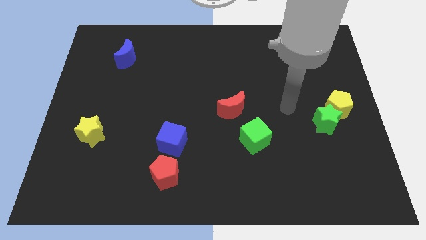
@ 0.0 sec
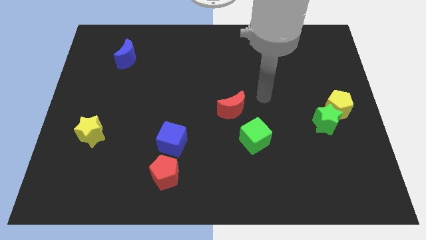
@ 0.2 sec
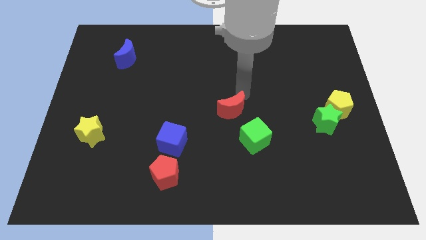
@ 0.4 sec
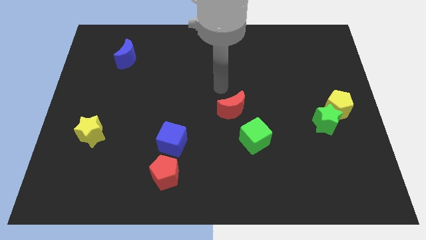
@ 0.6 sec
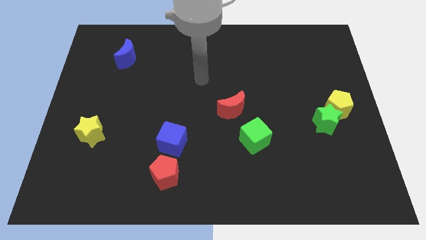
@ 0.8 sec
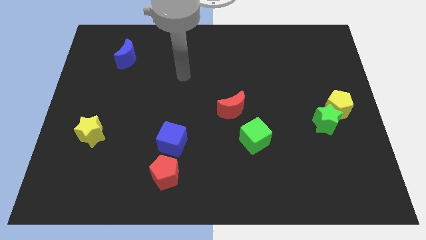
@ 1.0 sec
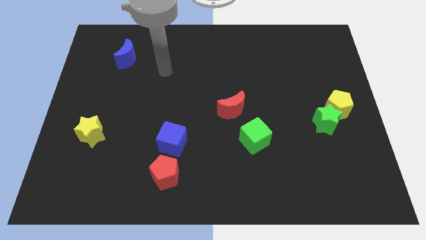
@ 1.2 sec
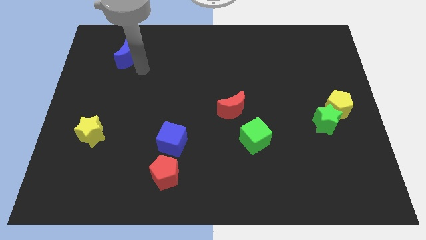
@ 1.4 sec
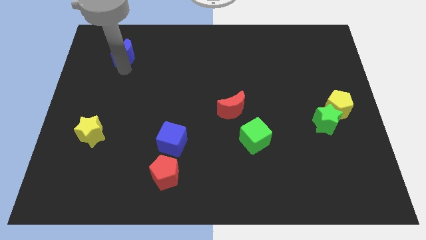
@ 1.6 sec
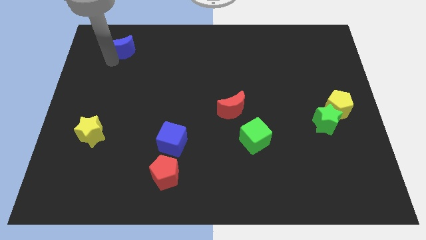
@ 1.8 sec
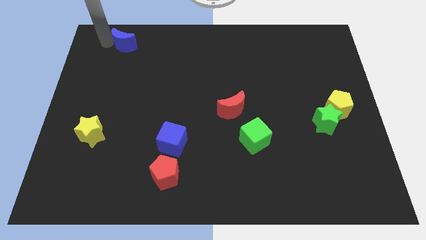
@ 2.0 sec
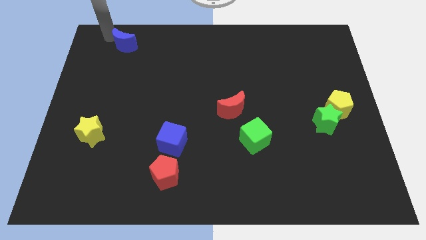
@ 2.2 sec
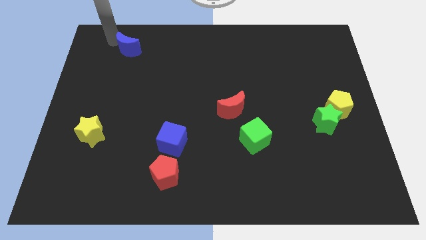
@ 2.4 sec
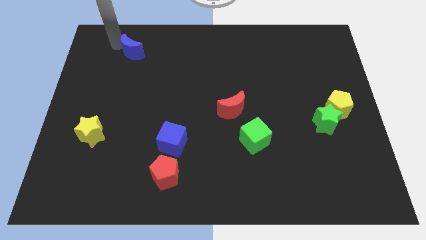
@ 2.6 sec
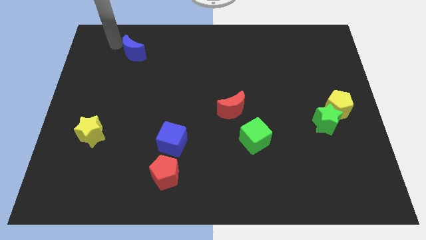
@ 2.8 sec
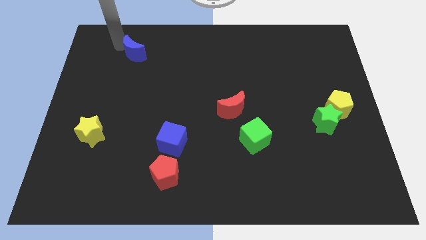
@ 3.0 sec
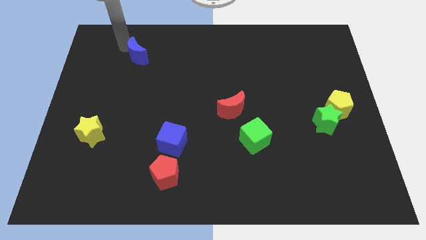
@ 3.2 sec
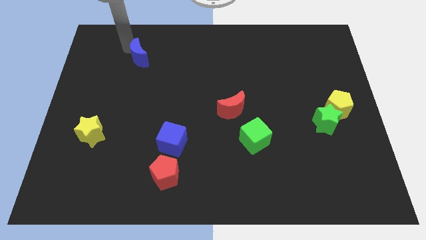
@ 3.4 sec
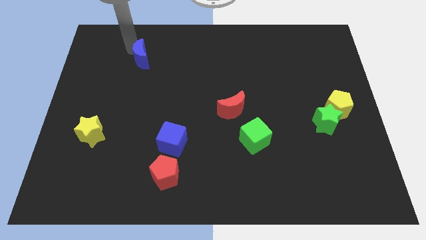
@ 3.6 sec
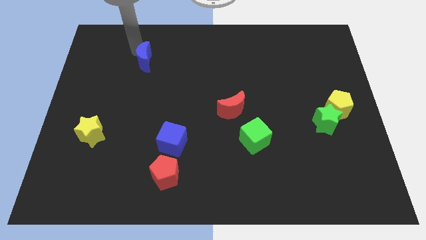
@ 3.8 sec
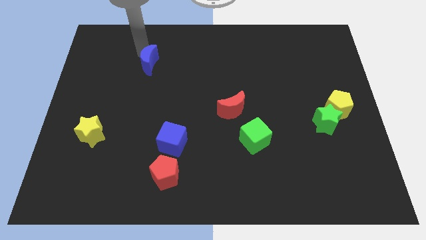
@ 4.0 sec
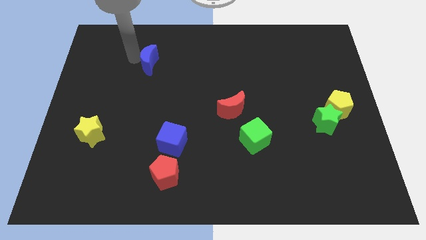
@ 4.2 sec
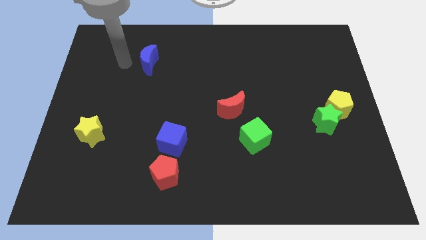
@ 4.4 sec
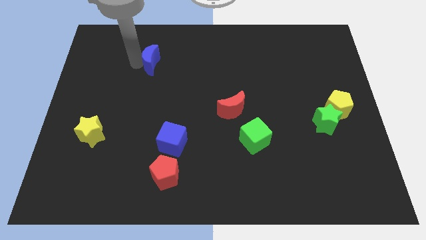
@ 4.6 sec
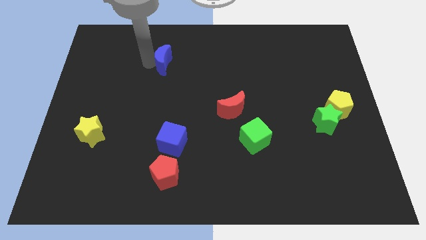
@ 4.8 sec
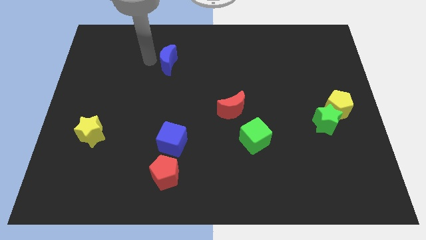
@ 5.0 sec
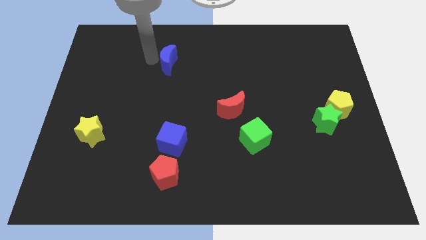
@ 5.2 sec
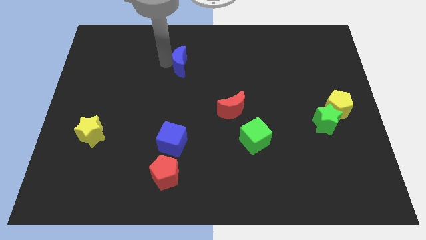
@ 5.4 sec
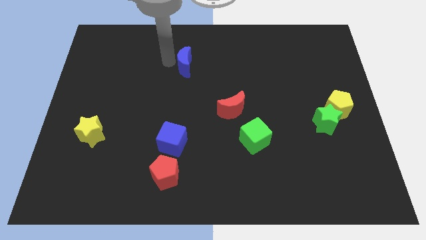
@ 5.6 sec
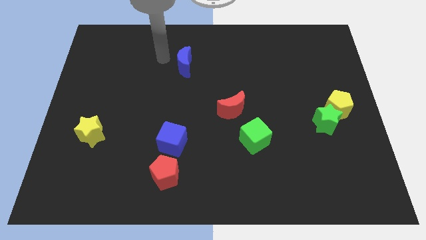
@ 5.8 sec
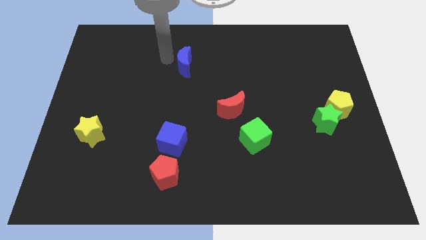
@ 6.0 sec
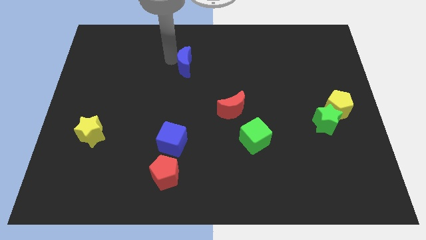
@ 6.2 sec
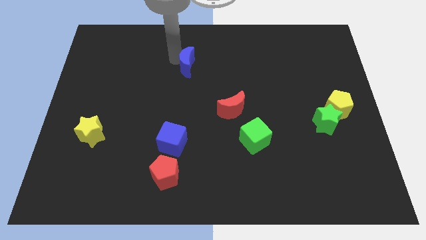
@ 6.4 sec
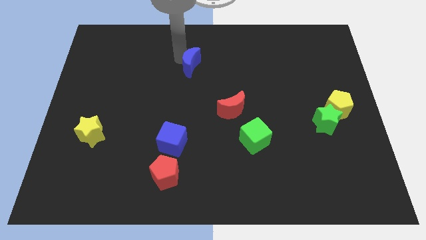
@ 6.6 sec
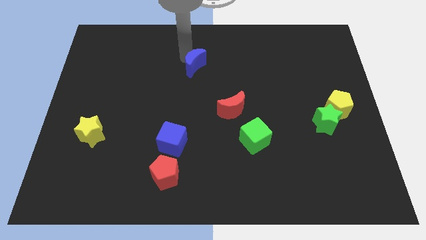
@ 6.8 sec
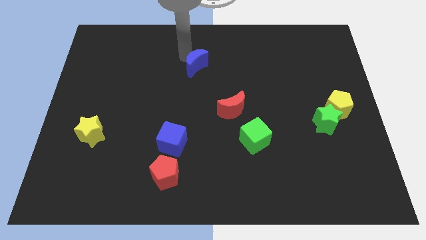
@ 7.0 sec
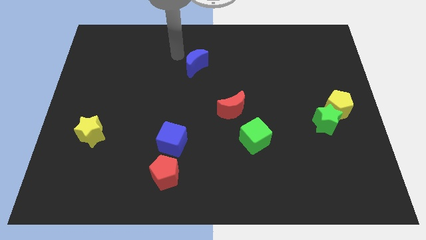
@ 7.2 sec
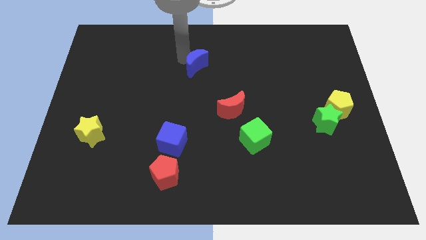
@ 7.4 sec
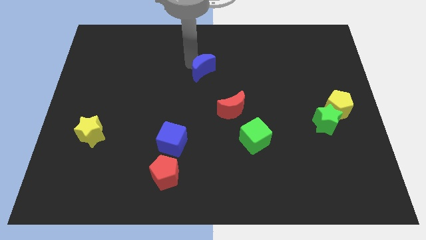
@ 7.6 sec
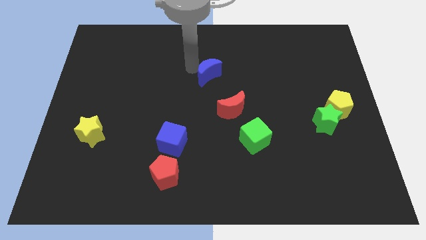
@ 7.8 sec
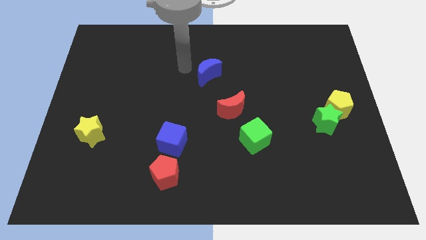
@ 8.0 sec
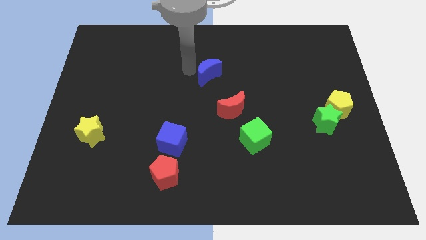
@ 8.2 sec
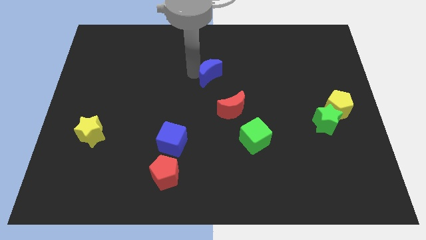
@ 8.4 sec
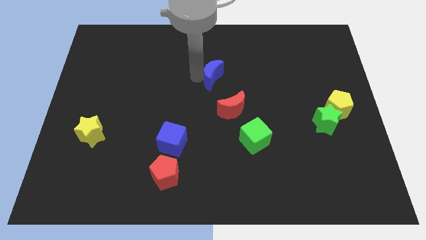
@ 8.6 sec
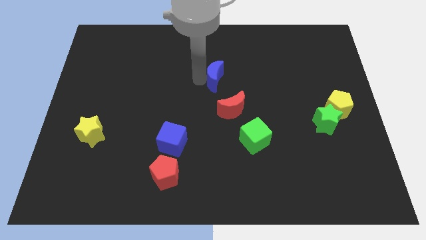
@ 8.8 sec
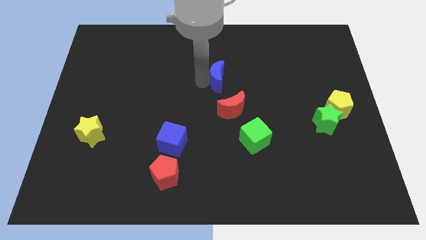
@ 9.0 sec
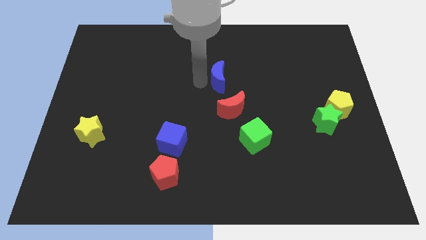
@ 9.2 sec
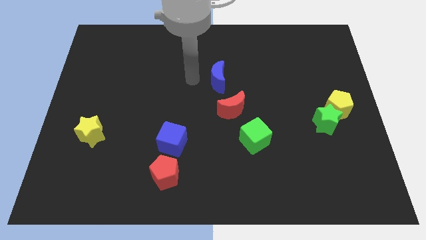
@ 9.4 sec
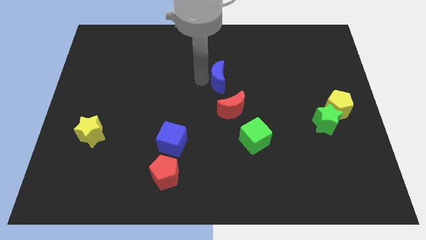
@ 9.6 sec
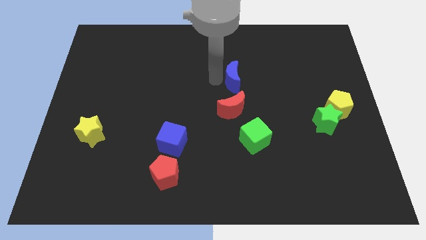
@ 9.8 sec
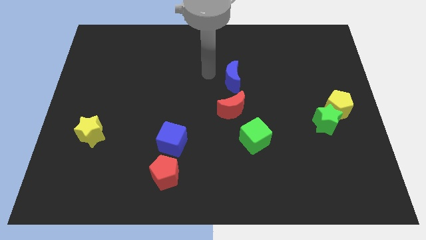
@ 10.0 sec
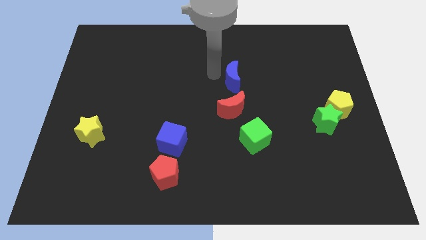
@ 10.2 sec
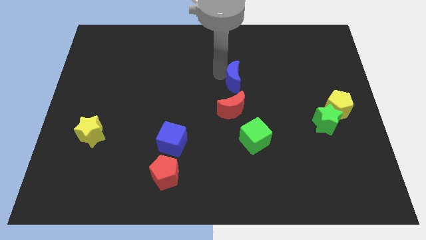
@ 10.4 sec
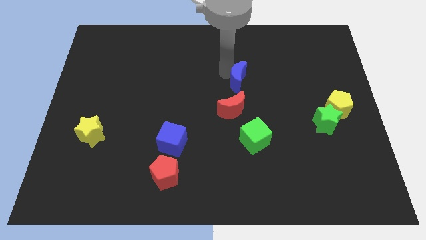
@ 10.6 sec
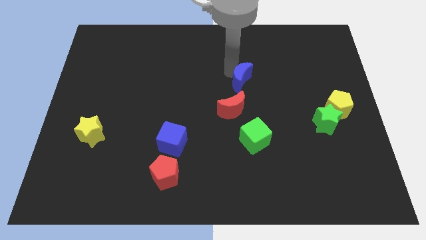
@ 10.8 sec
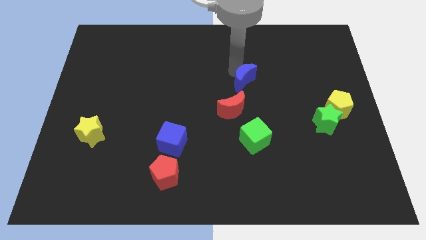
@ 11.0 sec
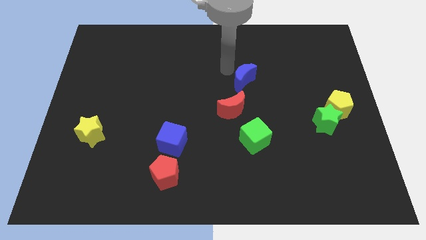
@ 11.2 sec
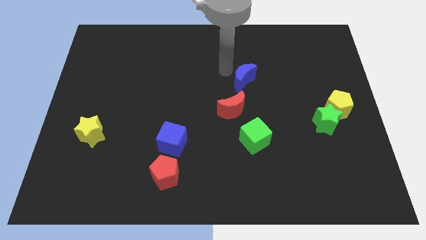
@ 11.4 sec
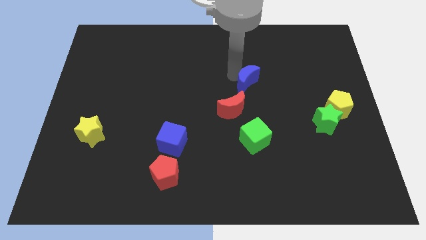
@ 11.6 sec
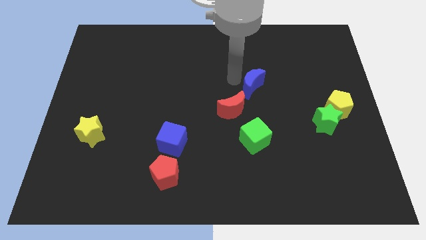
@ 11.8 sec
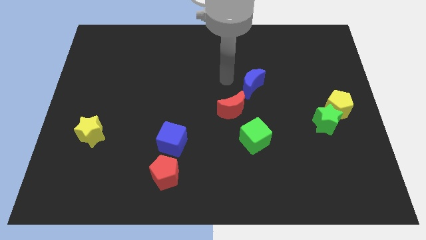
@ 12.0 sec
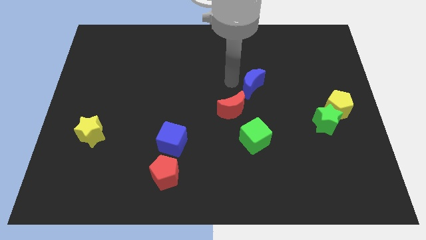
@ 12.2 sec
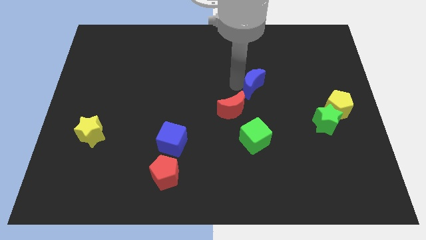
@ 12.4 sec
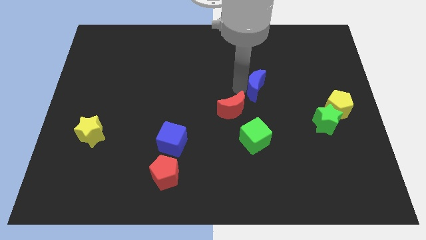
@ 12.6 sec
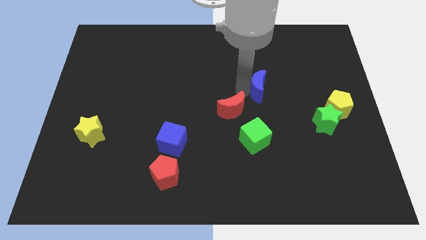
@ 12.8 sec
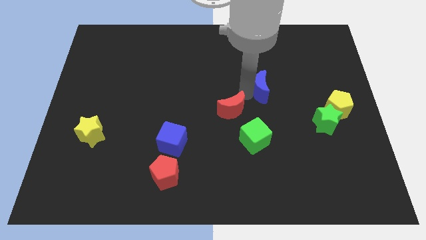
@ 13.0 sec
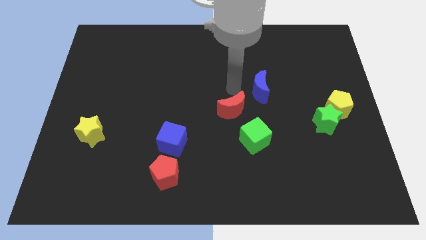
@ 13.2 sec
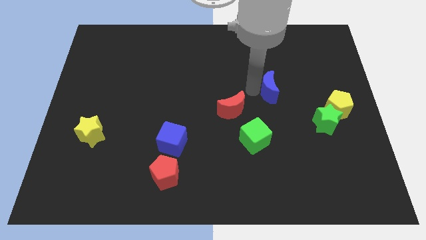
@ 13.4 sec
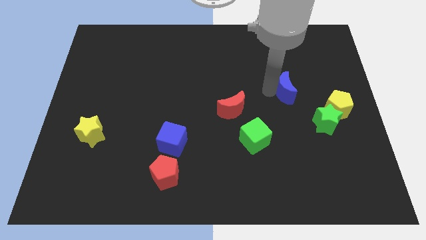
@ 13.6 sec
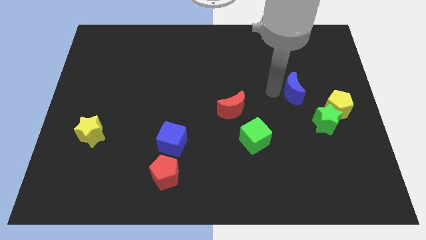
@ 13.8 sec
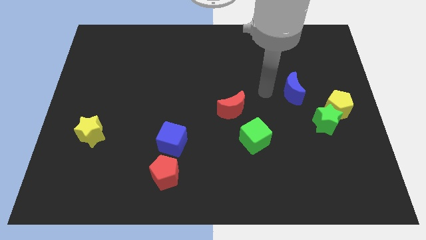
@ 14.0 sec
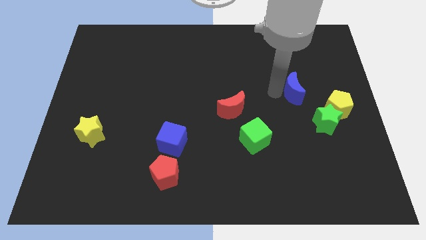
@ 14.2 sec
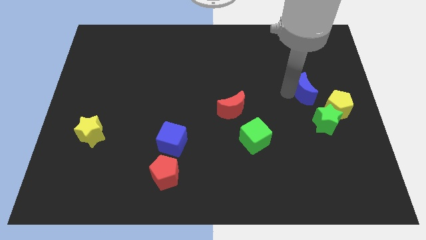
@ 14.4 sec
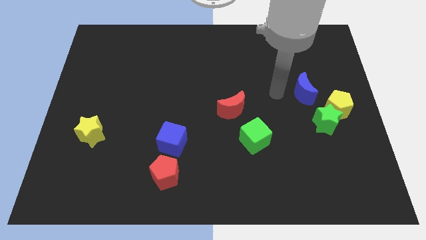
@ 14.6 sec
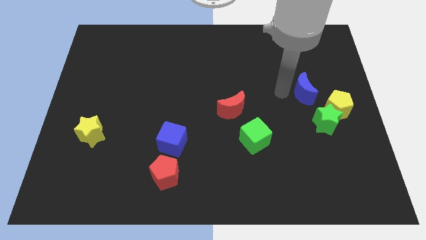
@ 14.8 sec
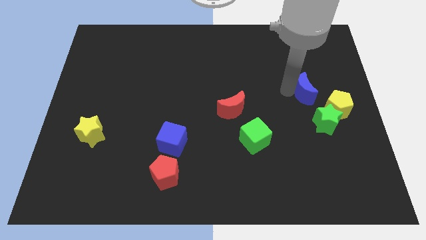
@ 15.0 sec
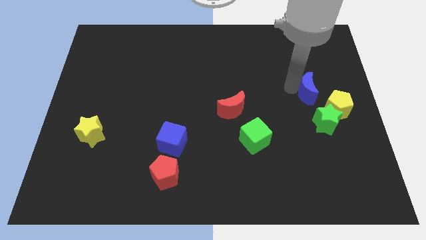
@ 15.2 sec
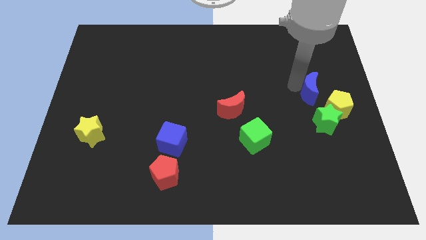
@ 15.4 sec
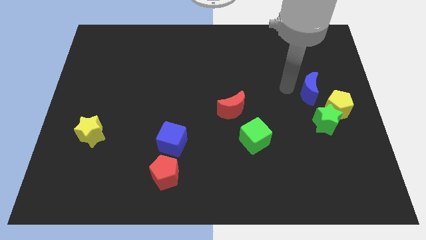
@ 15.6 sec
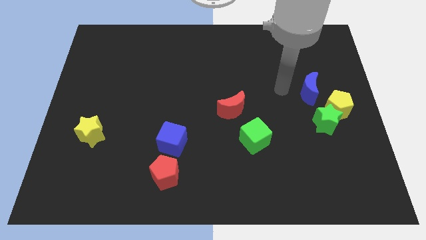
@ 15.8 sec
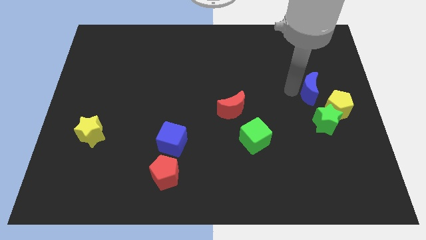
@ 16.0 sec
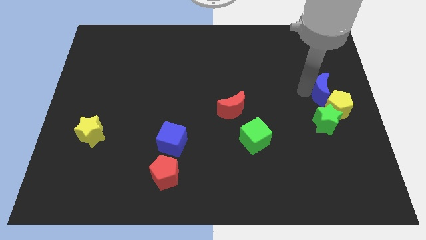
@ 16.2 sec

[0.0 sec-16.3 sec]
move the blue moon to the right side
